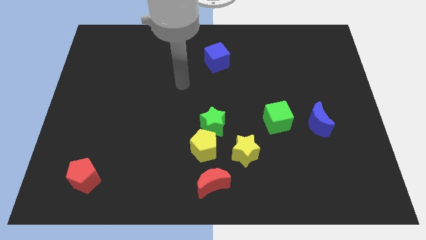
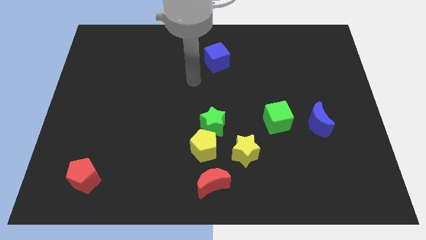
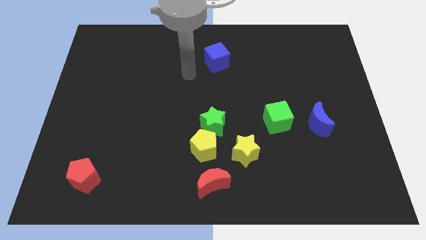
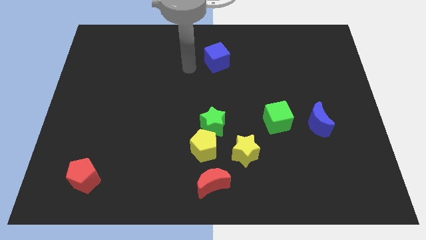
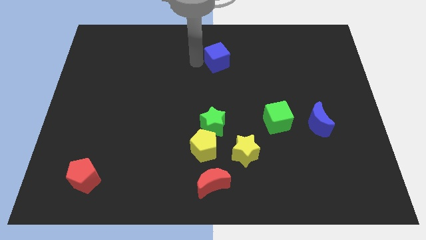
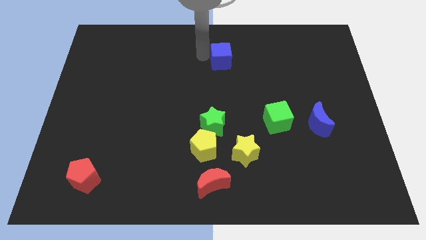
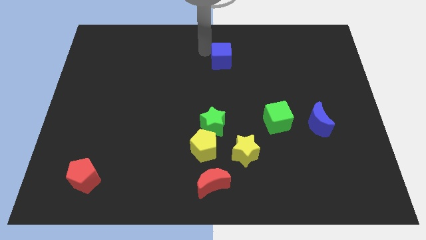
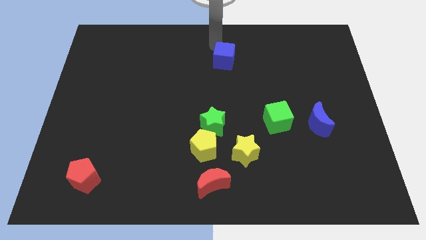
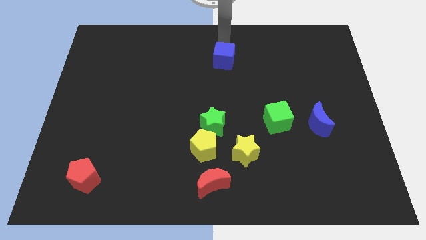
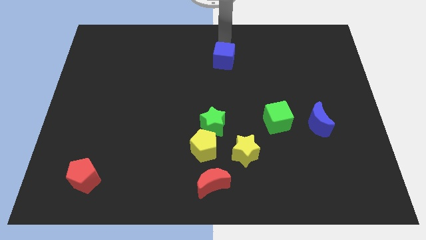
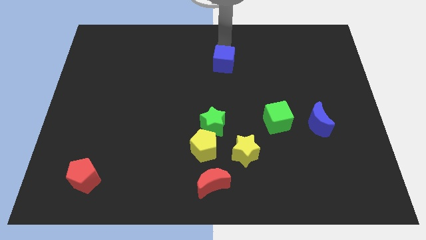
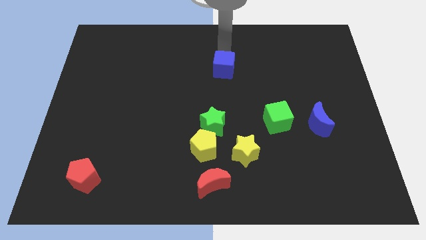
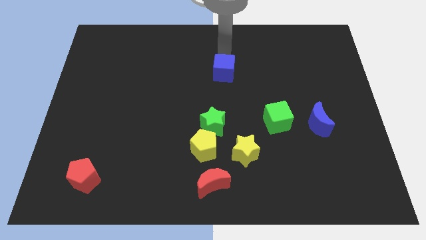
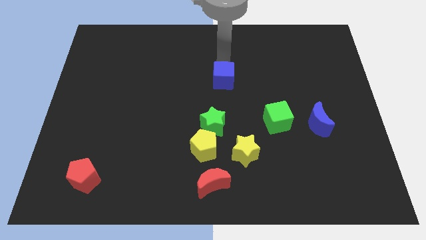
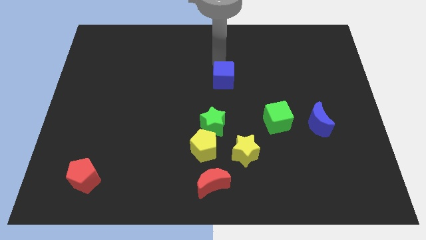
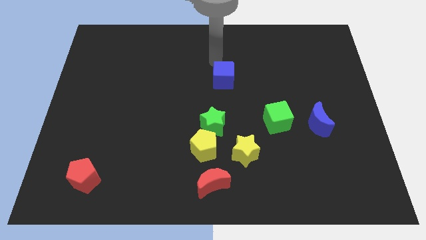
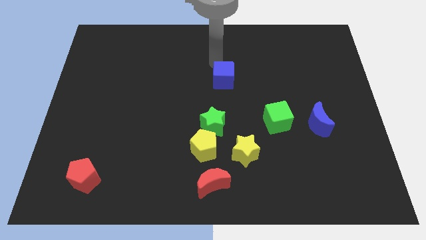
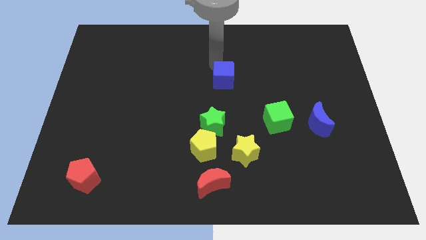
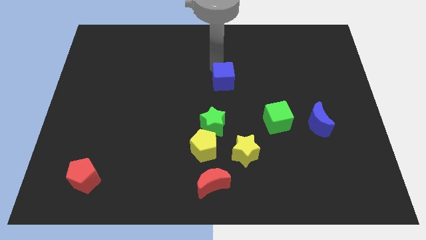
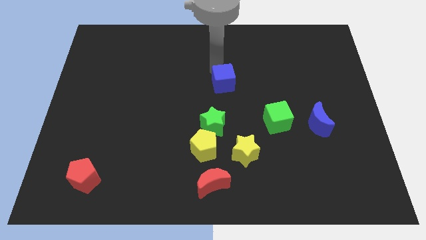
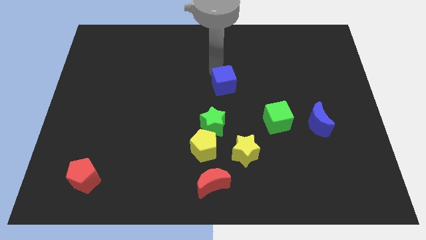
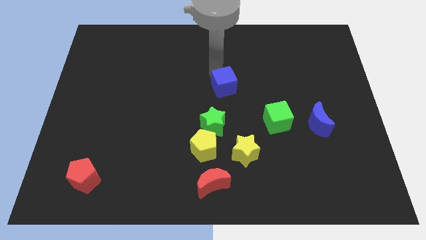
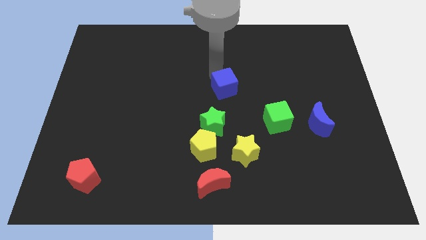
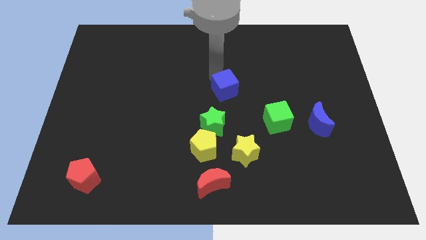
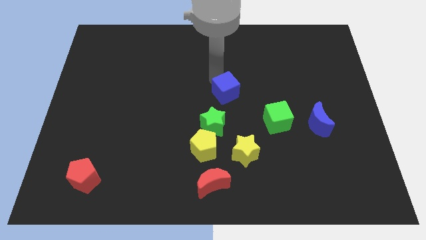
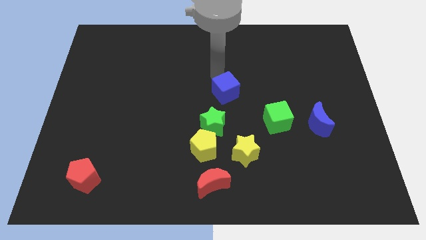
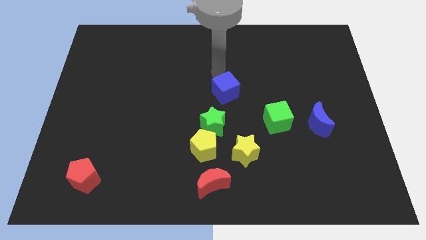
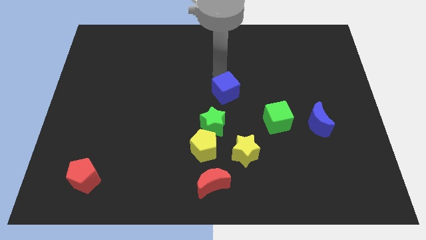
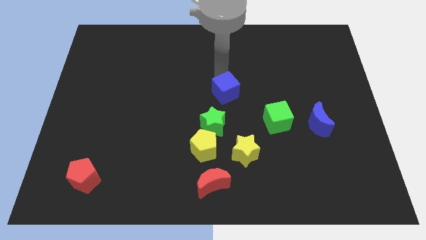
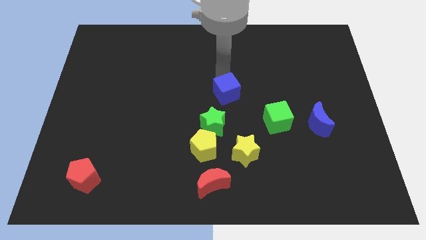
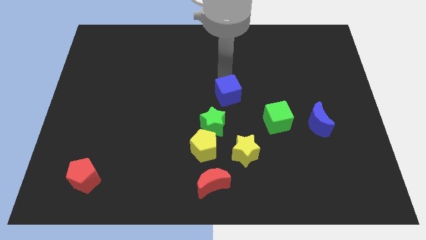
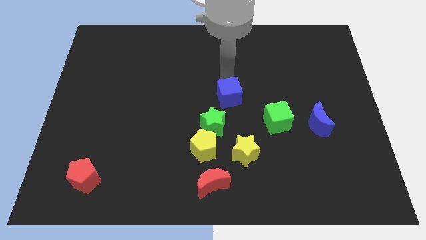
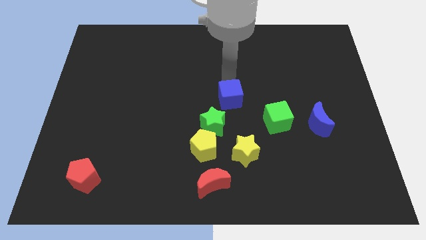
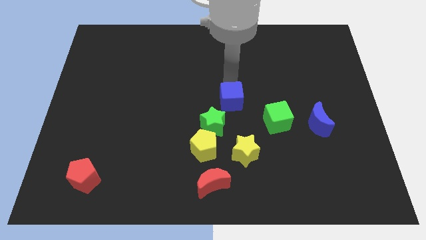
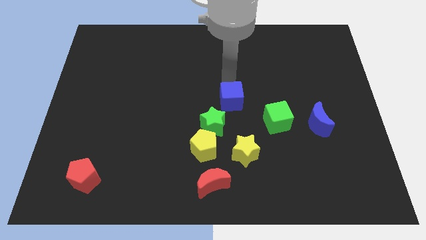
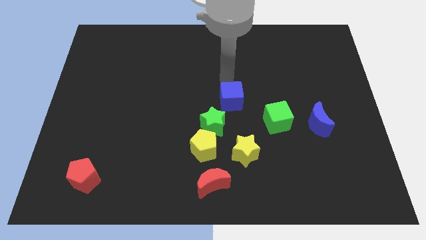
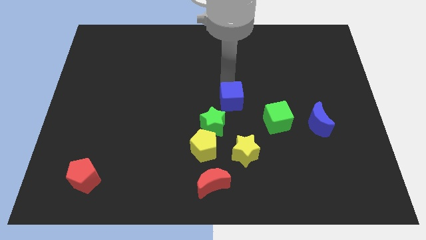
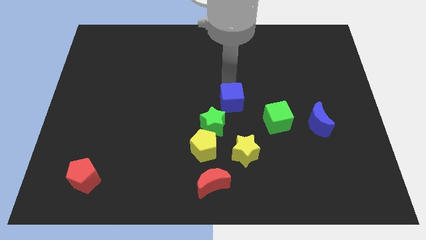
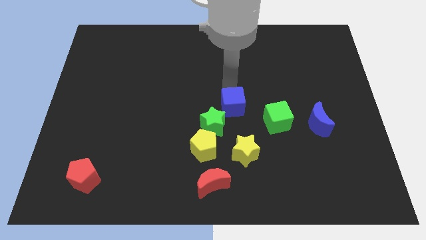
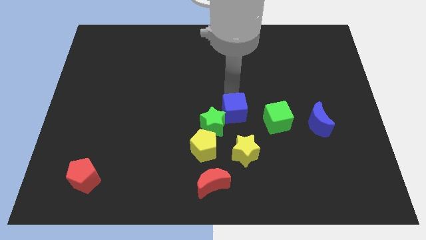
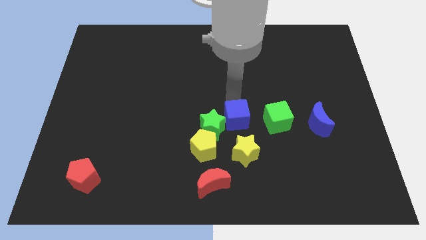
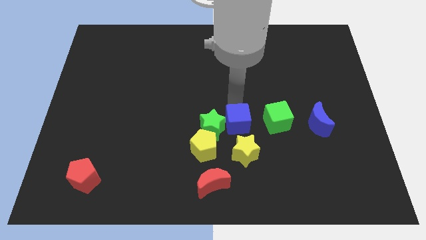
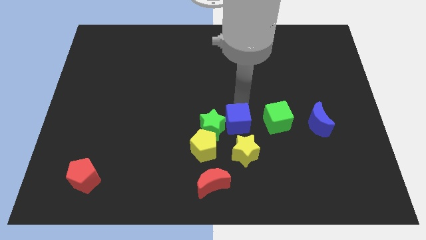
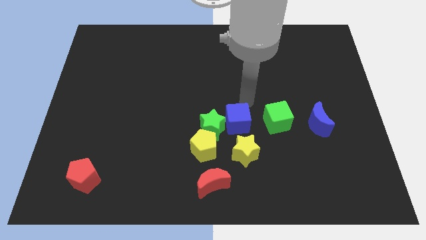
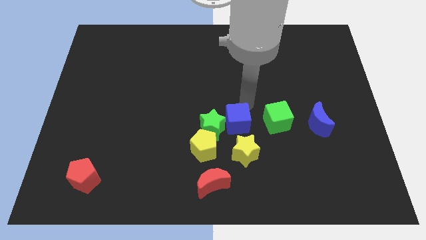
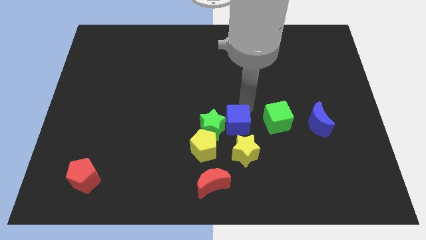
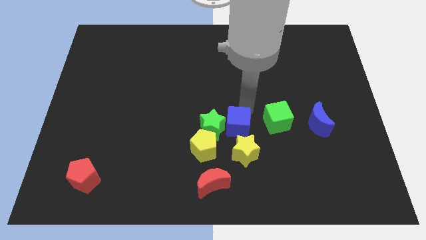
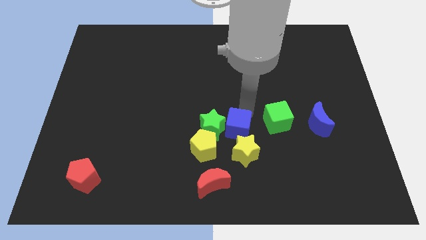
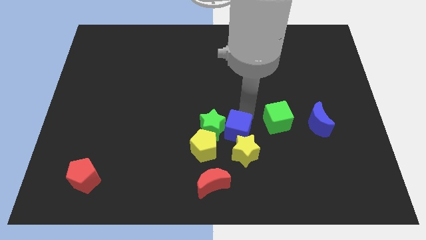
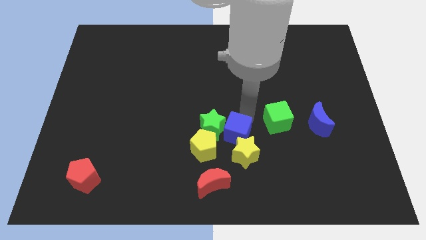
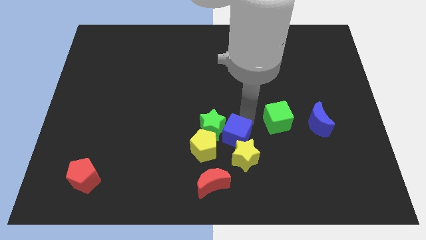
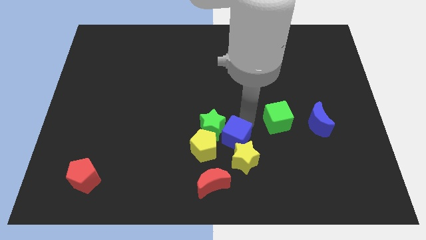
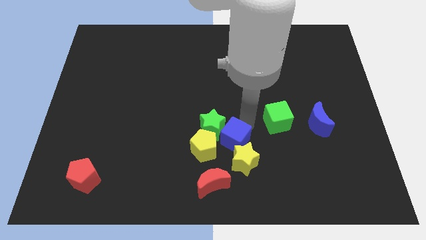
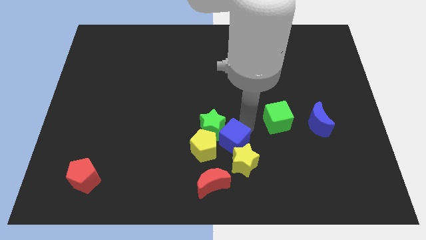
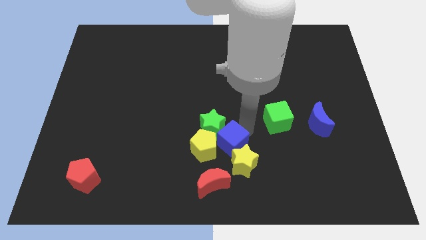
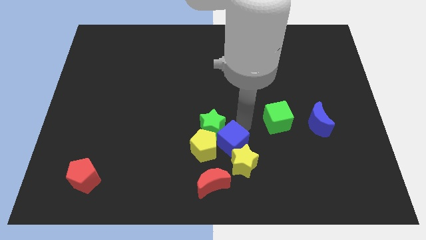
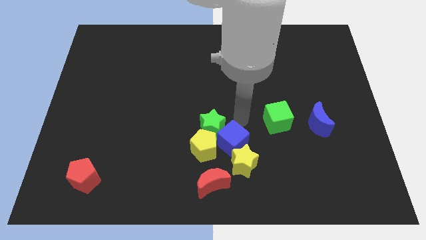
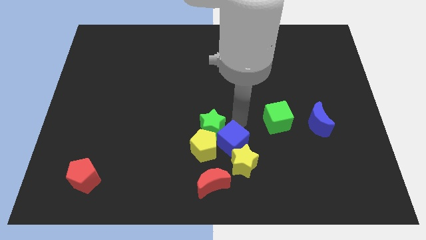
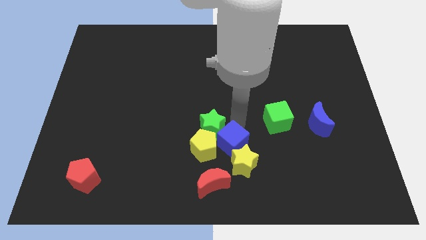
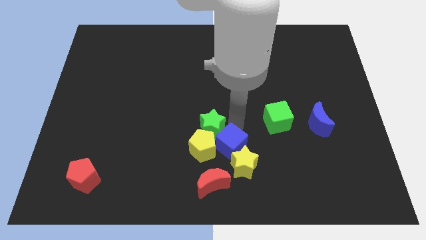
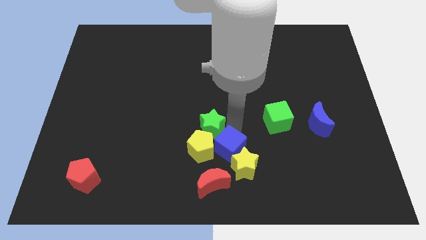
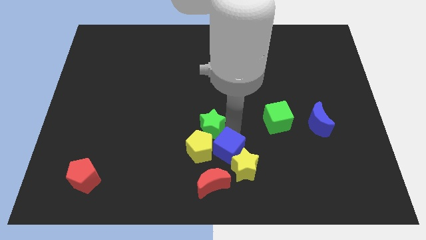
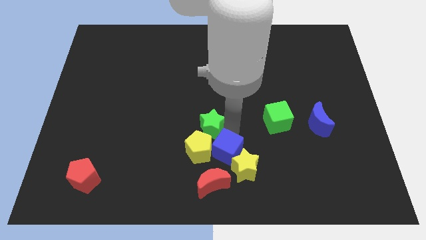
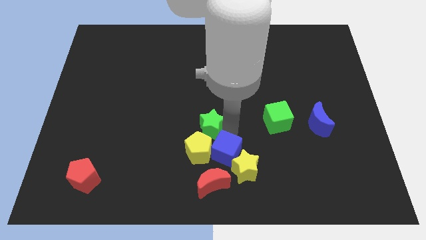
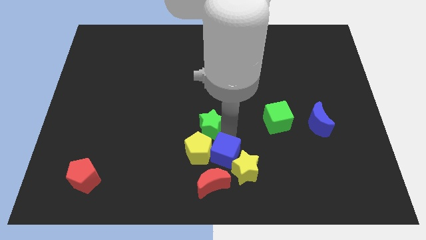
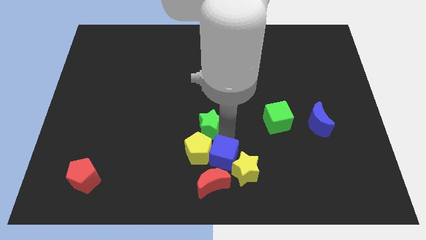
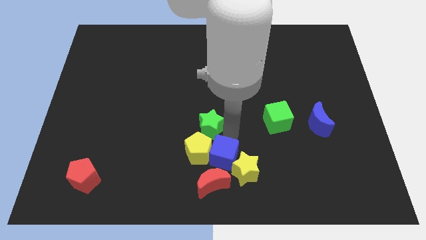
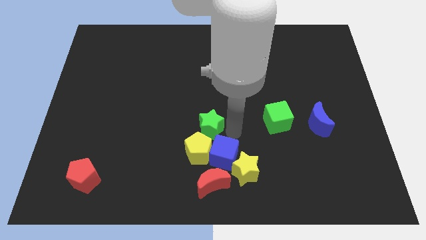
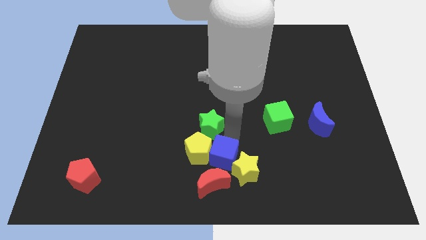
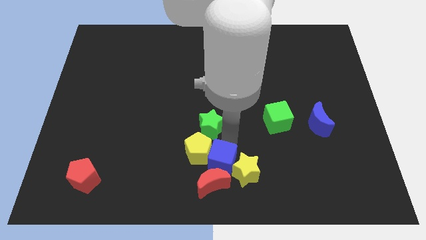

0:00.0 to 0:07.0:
move the blue cube close to the red moon

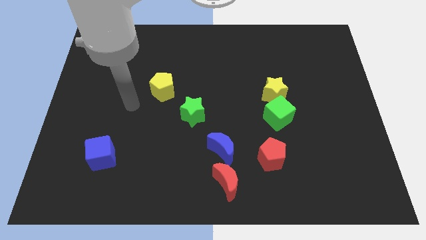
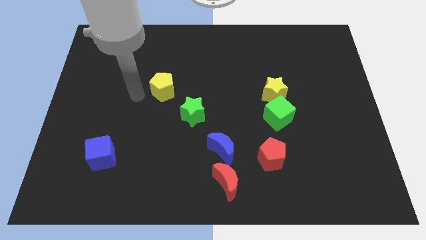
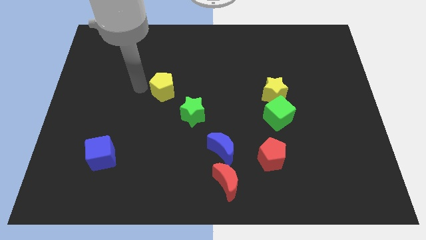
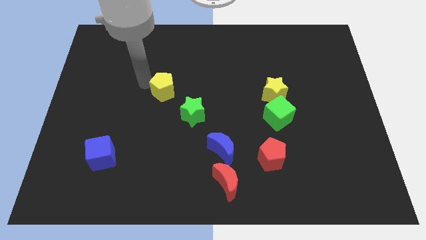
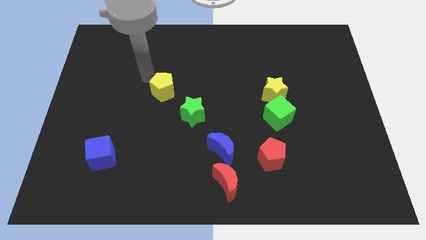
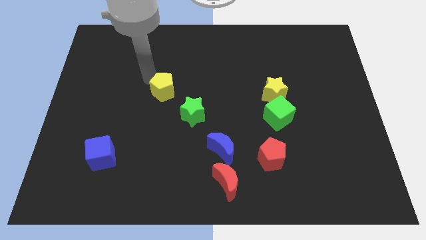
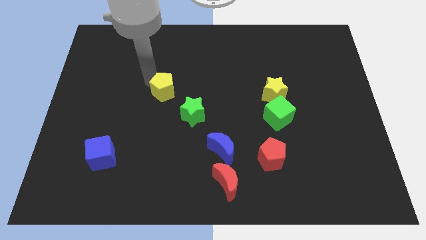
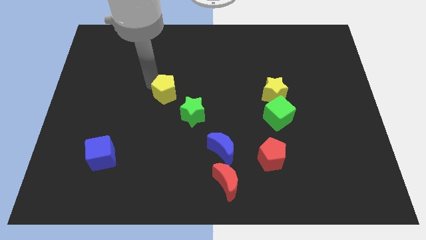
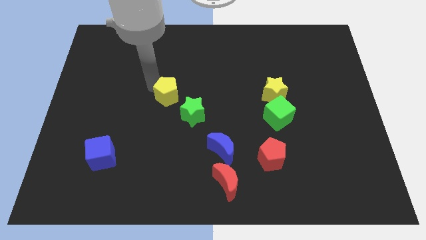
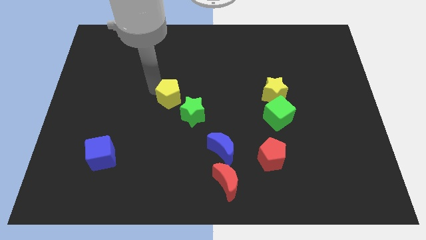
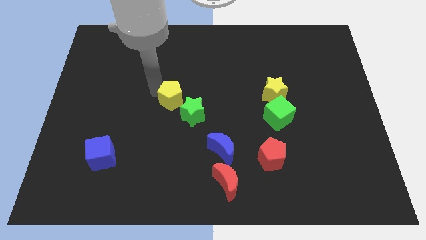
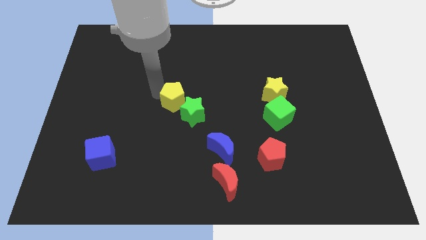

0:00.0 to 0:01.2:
put the yellow pentagon next to the green star
